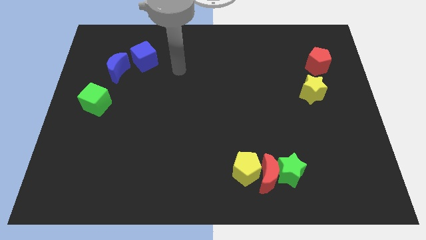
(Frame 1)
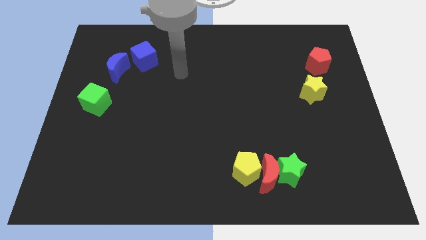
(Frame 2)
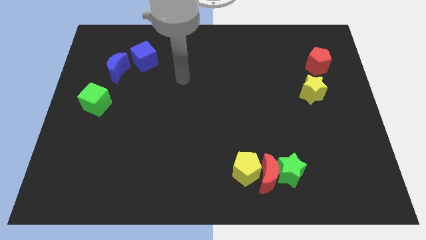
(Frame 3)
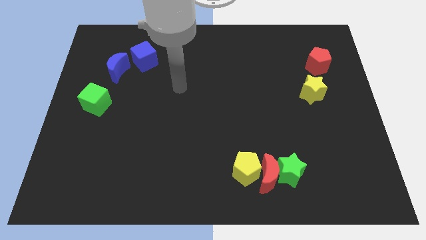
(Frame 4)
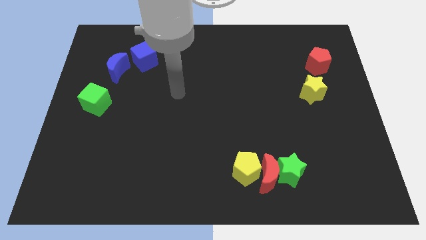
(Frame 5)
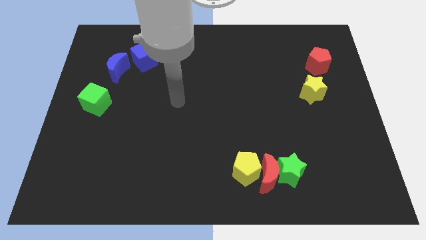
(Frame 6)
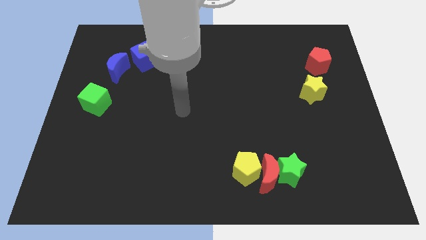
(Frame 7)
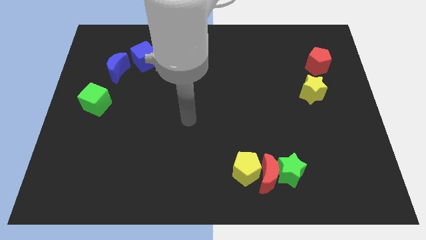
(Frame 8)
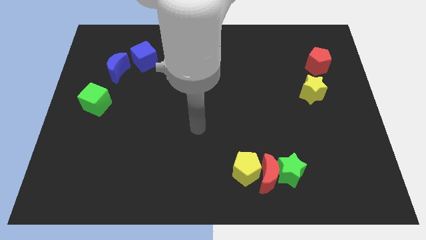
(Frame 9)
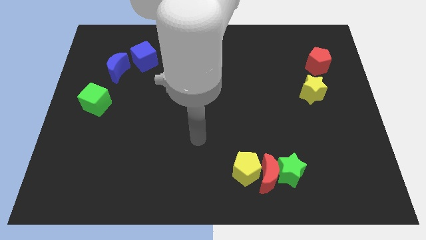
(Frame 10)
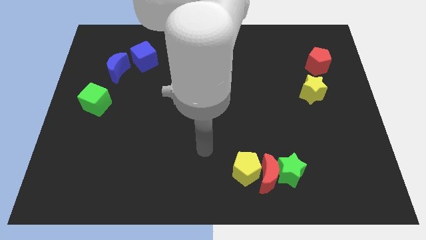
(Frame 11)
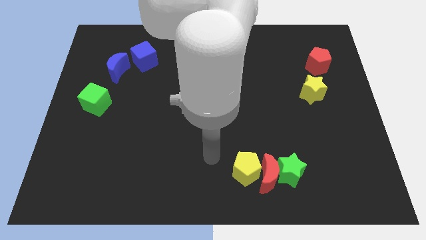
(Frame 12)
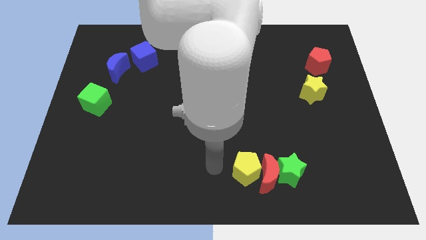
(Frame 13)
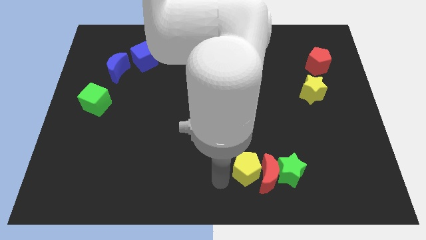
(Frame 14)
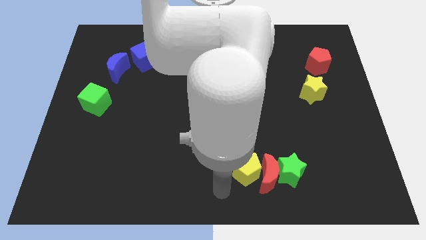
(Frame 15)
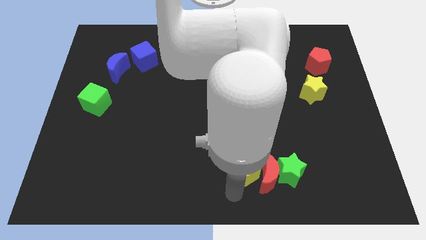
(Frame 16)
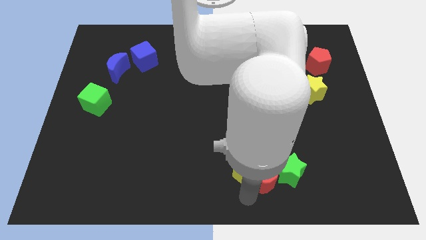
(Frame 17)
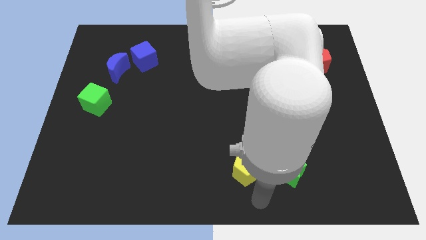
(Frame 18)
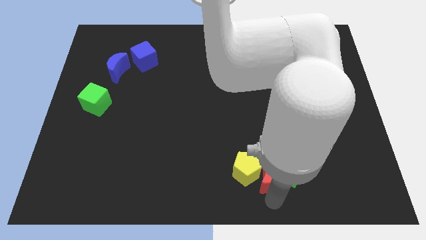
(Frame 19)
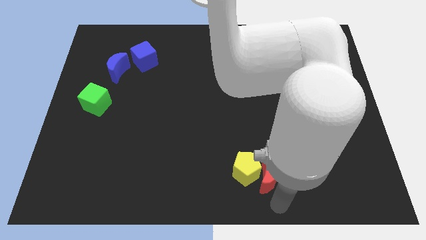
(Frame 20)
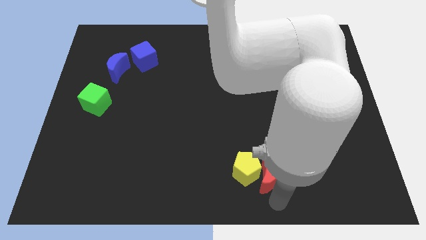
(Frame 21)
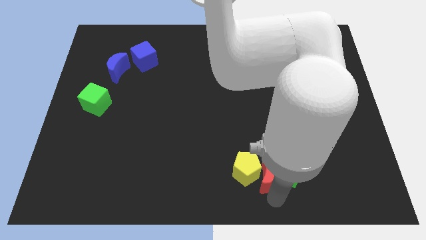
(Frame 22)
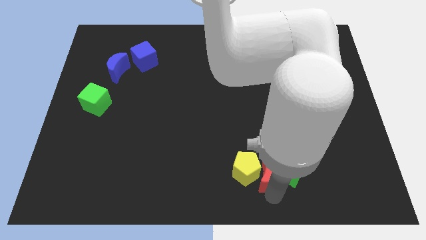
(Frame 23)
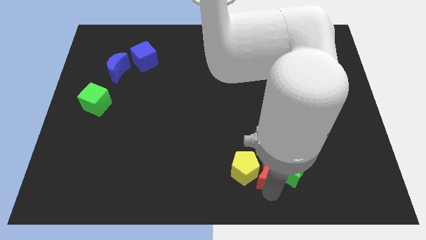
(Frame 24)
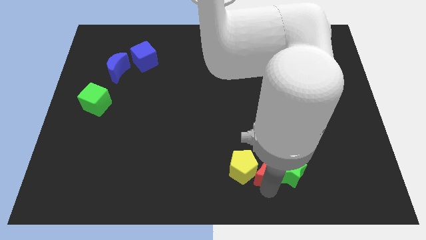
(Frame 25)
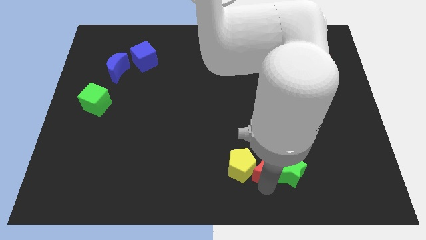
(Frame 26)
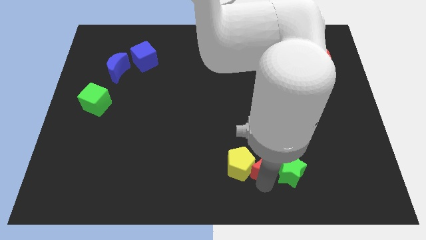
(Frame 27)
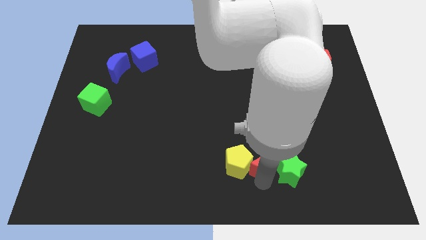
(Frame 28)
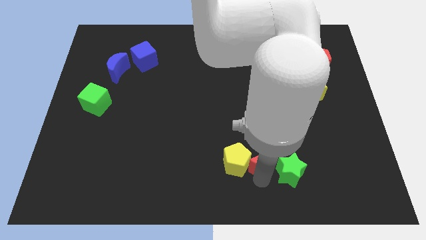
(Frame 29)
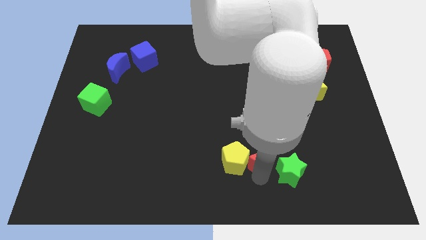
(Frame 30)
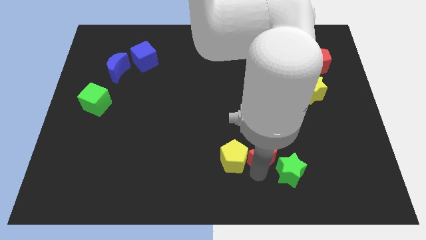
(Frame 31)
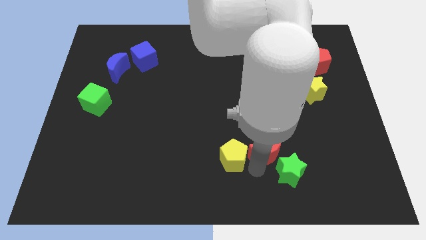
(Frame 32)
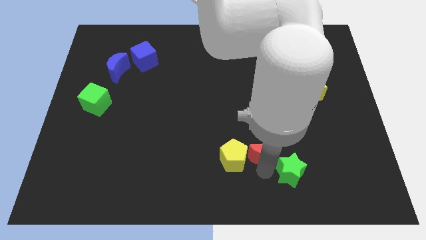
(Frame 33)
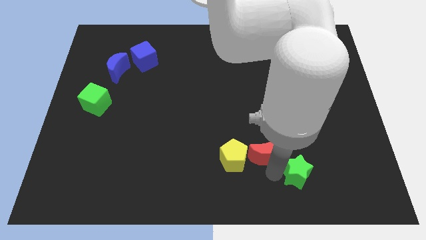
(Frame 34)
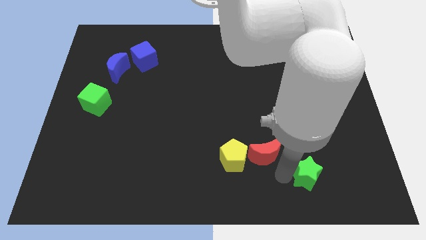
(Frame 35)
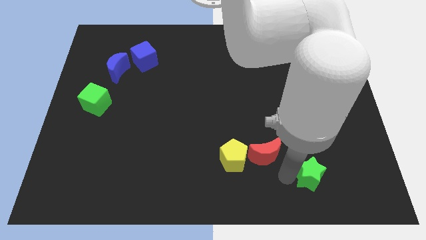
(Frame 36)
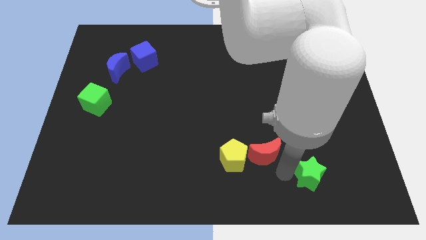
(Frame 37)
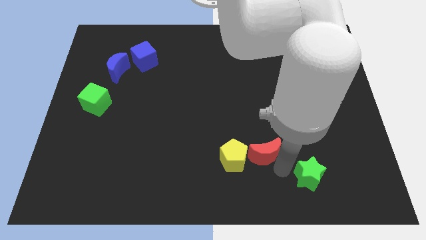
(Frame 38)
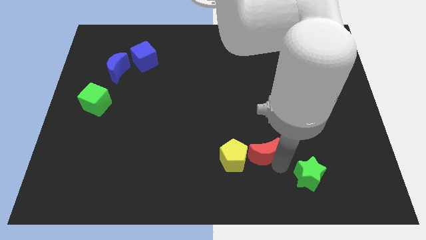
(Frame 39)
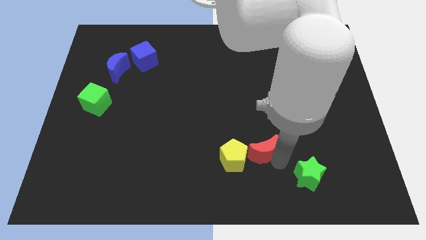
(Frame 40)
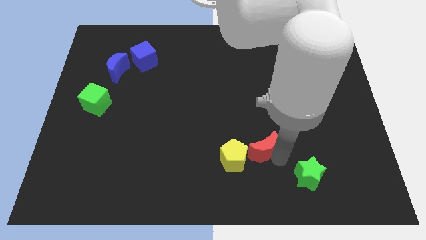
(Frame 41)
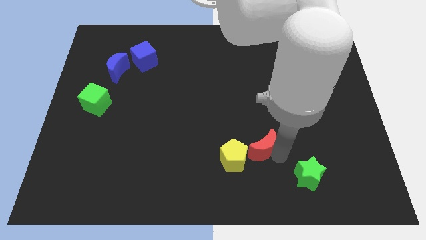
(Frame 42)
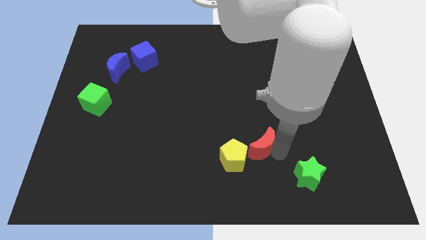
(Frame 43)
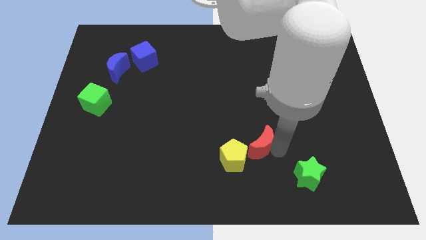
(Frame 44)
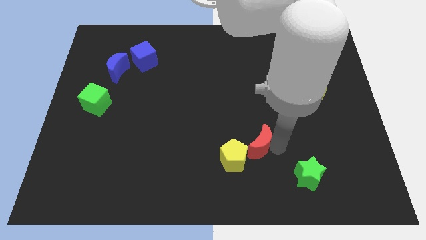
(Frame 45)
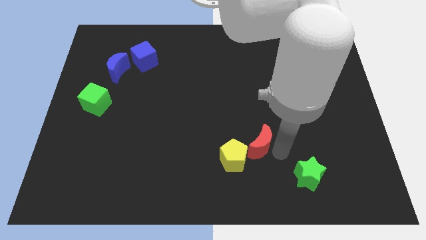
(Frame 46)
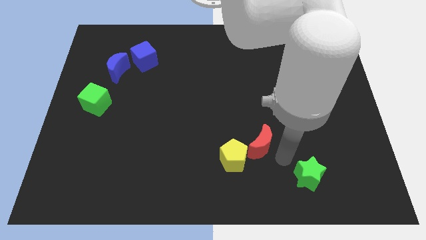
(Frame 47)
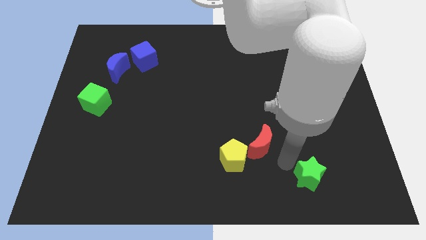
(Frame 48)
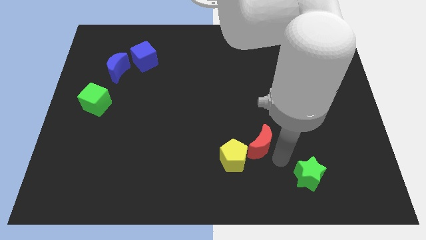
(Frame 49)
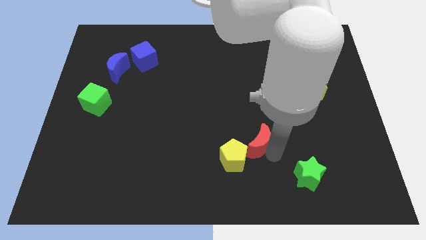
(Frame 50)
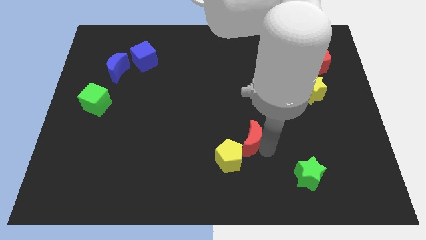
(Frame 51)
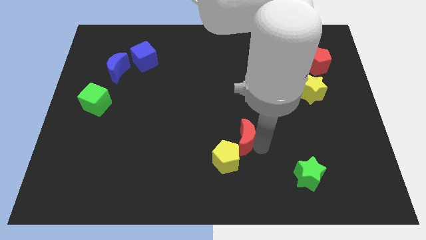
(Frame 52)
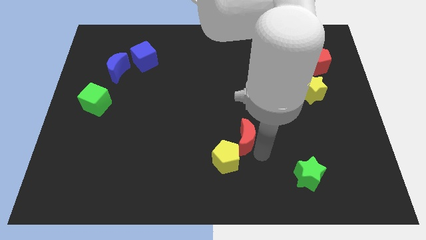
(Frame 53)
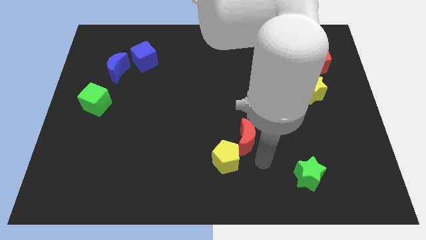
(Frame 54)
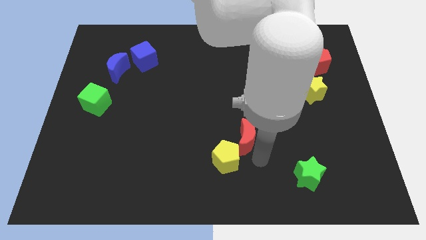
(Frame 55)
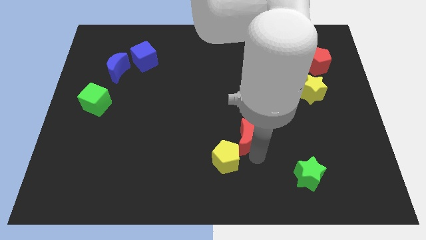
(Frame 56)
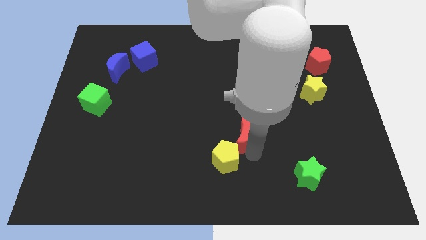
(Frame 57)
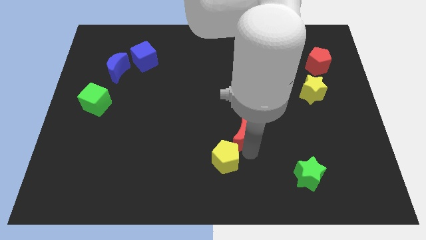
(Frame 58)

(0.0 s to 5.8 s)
put the red moon to the center

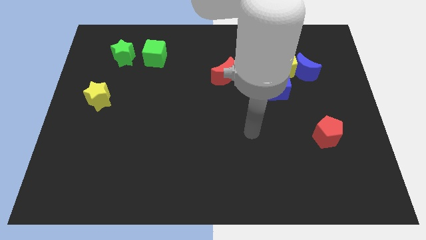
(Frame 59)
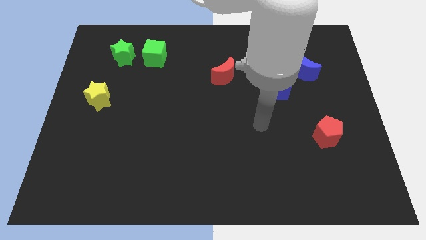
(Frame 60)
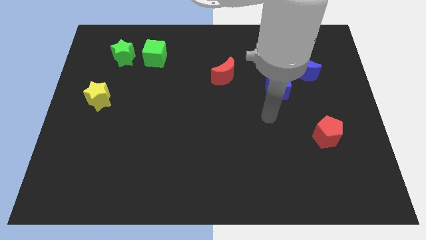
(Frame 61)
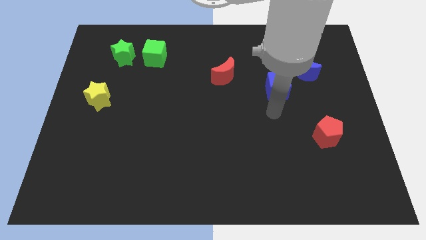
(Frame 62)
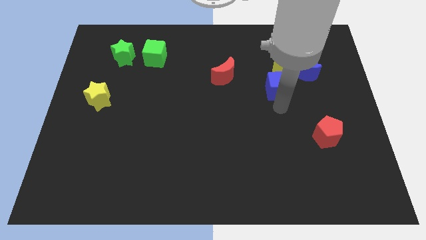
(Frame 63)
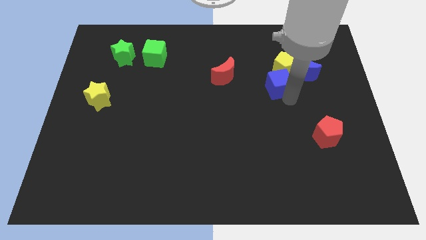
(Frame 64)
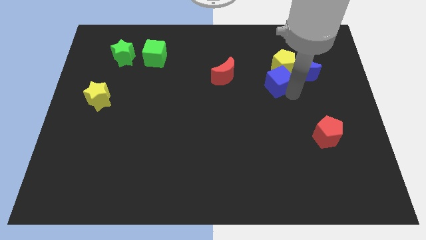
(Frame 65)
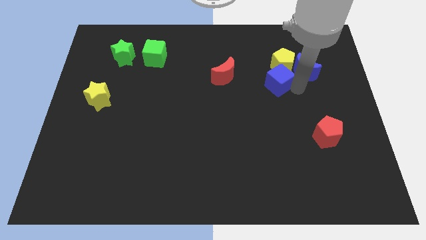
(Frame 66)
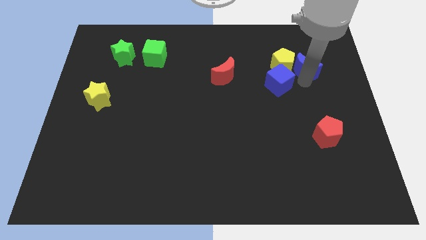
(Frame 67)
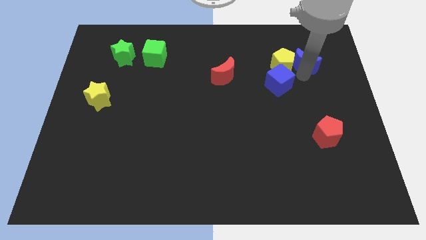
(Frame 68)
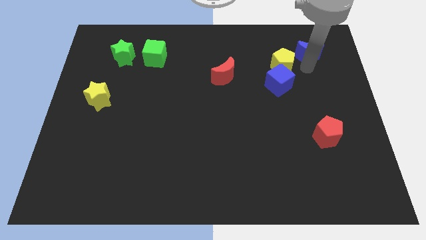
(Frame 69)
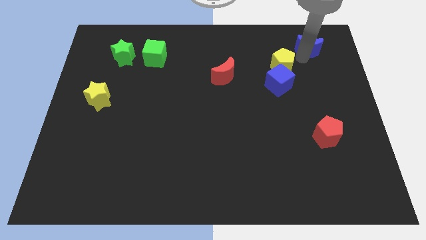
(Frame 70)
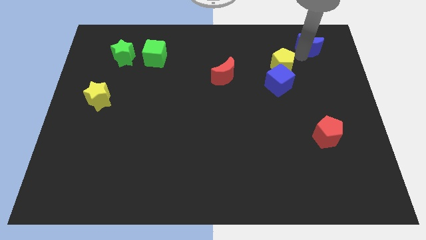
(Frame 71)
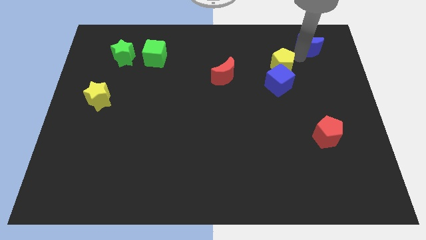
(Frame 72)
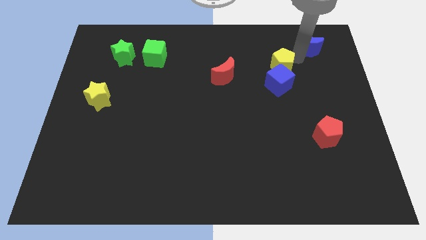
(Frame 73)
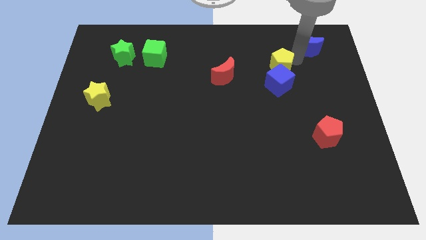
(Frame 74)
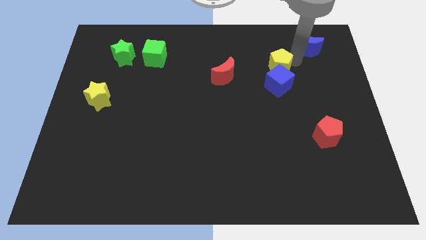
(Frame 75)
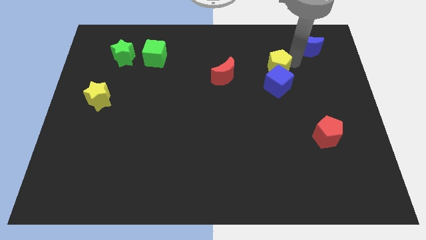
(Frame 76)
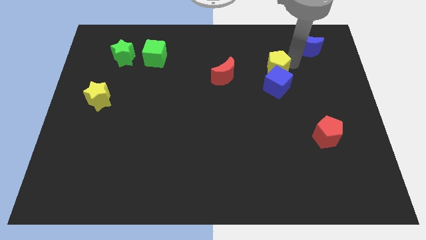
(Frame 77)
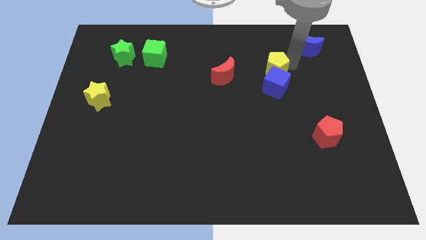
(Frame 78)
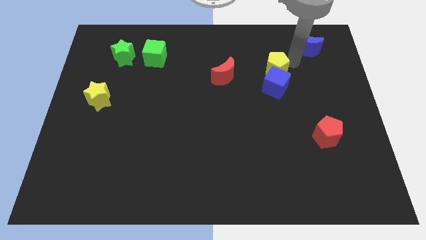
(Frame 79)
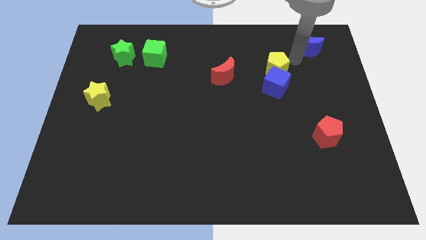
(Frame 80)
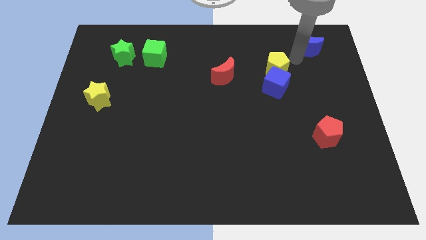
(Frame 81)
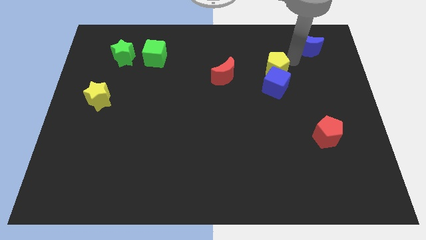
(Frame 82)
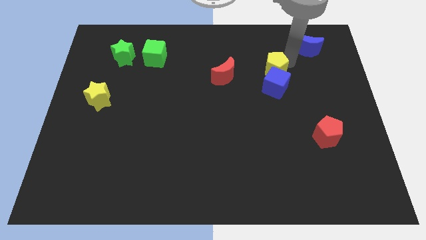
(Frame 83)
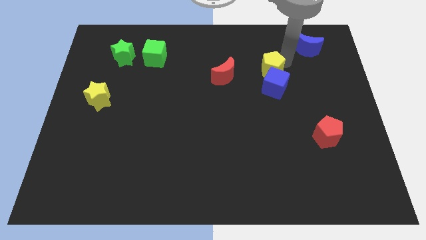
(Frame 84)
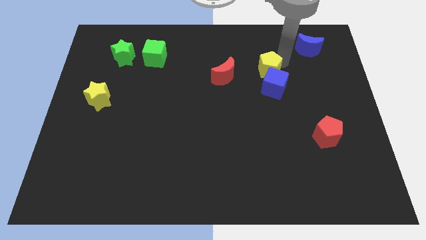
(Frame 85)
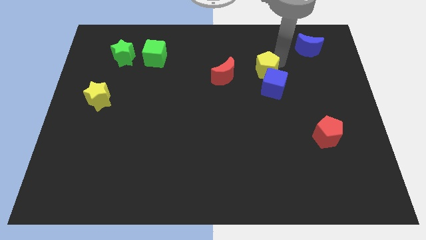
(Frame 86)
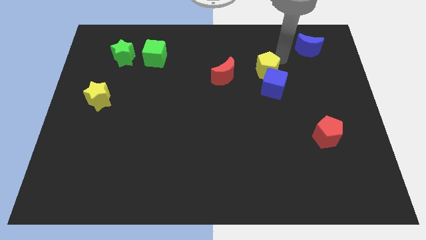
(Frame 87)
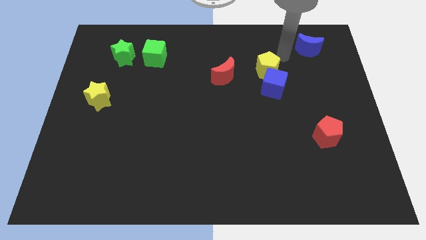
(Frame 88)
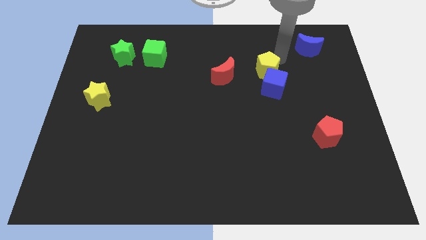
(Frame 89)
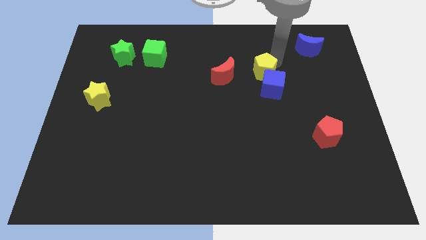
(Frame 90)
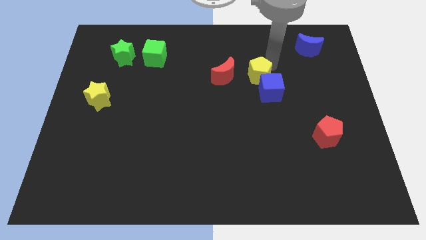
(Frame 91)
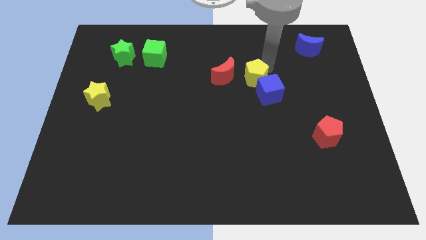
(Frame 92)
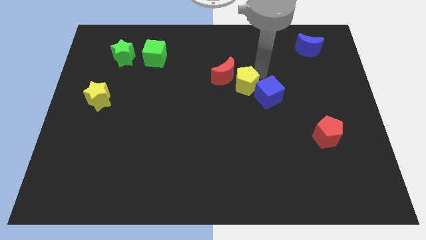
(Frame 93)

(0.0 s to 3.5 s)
slide the yellow pentagon to the middle
